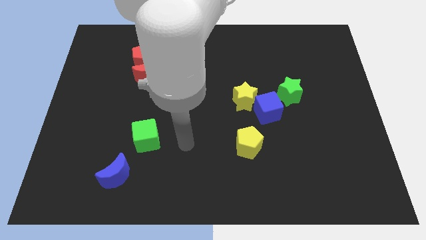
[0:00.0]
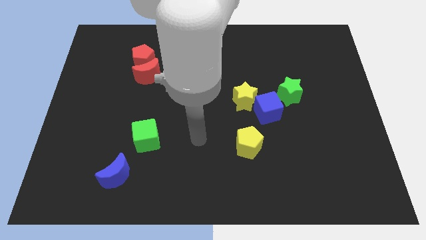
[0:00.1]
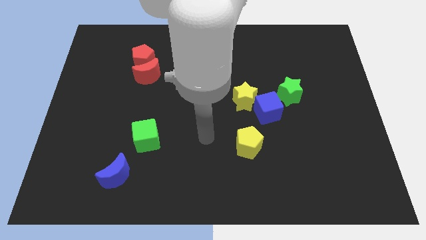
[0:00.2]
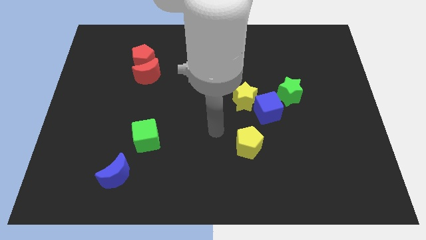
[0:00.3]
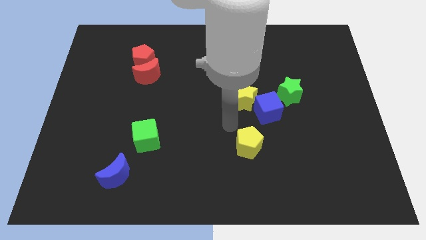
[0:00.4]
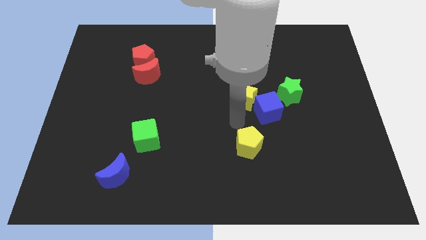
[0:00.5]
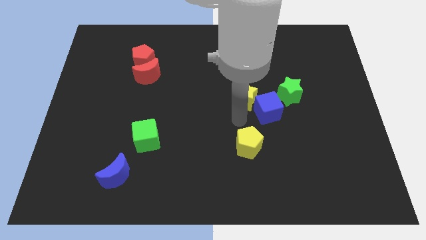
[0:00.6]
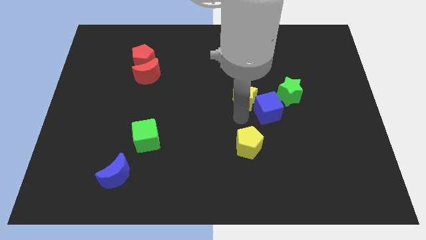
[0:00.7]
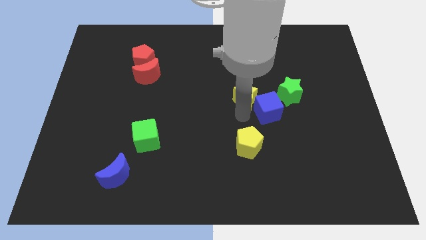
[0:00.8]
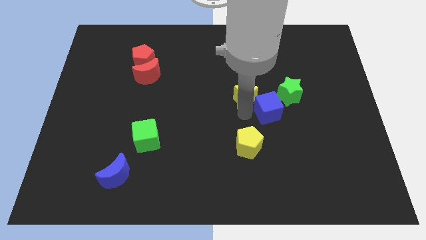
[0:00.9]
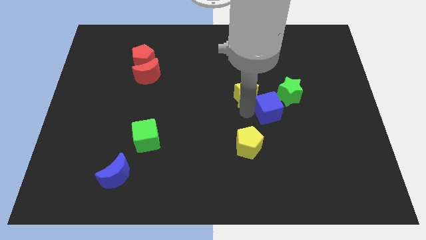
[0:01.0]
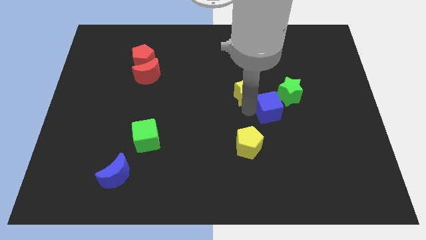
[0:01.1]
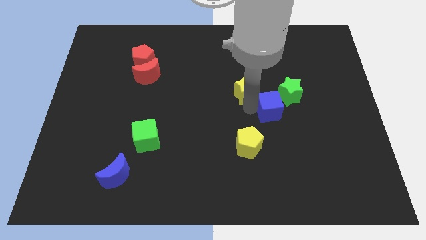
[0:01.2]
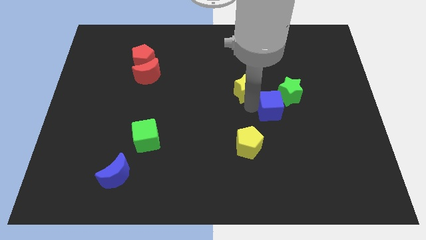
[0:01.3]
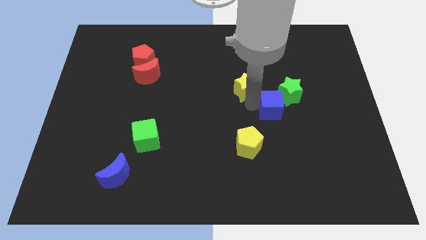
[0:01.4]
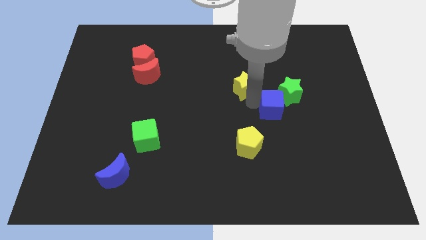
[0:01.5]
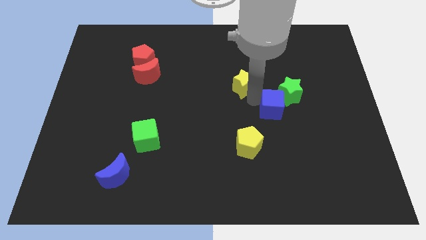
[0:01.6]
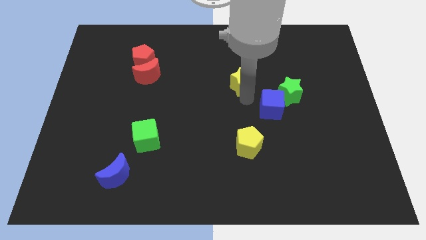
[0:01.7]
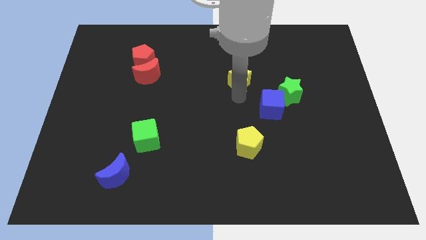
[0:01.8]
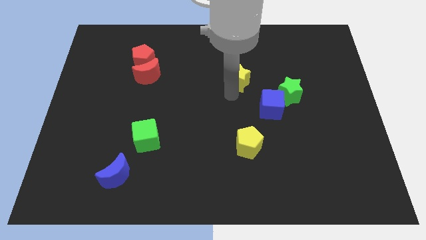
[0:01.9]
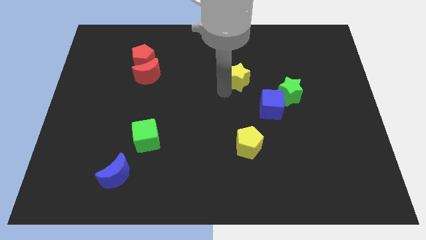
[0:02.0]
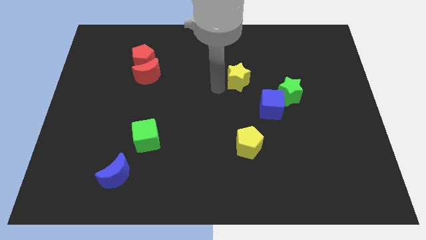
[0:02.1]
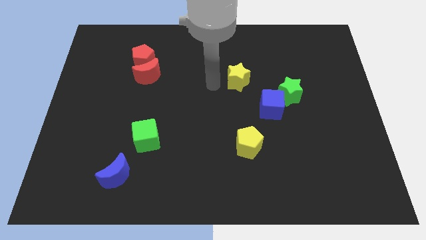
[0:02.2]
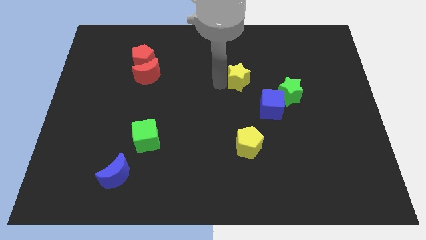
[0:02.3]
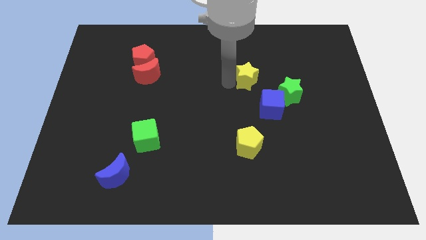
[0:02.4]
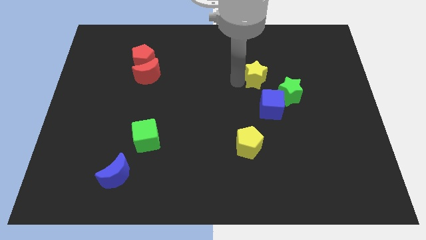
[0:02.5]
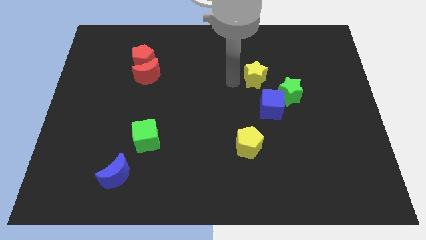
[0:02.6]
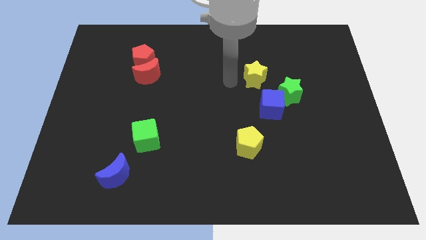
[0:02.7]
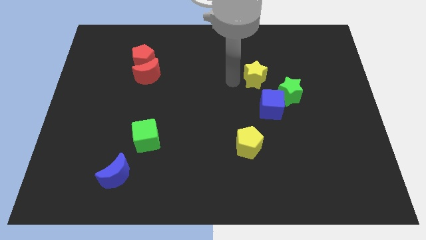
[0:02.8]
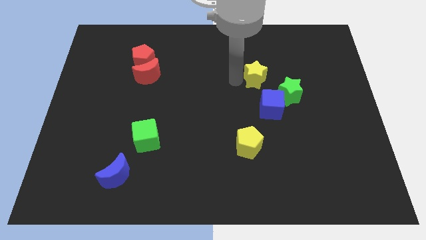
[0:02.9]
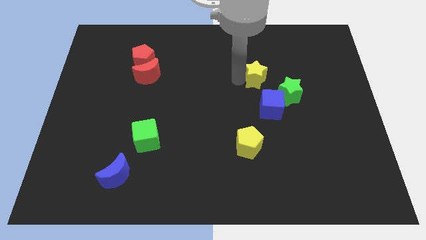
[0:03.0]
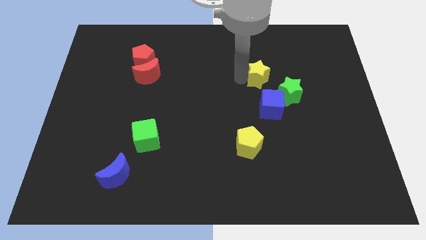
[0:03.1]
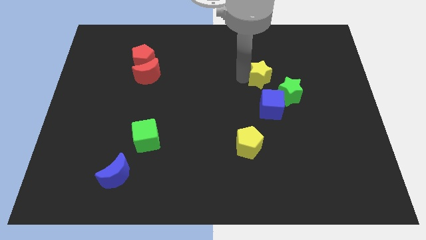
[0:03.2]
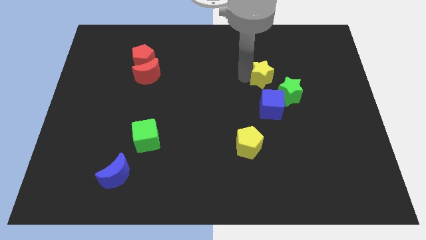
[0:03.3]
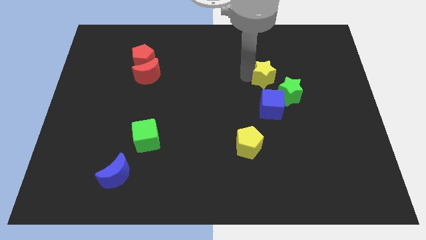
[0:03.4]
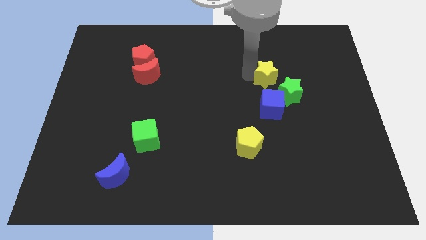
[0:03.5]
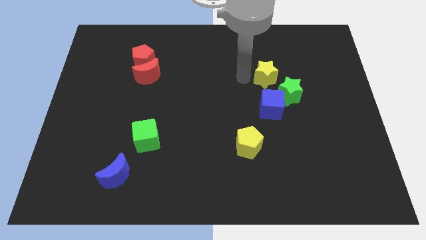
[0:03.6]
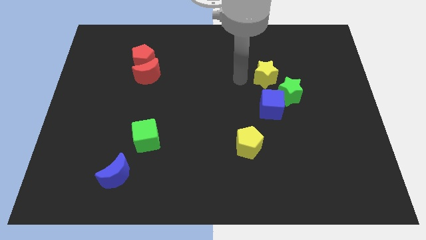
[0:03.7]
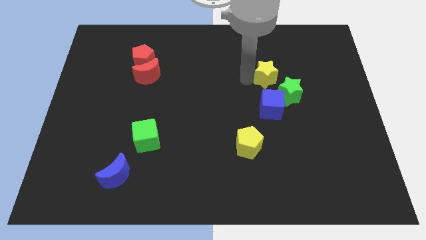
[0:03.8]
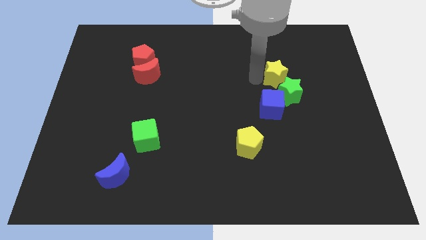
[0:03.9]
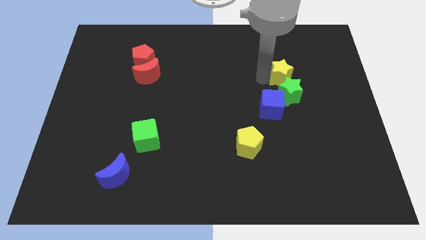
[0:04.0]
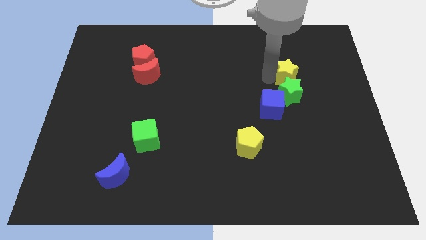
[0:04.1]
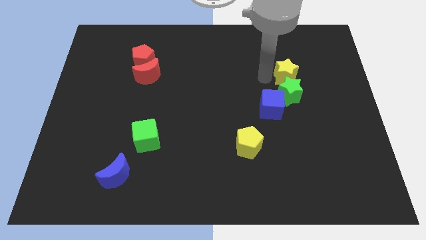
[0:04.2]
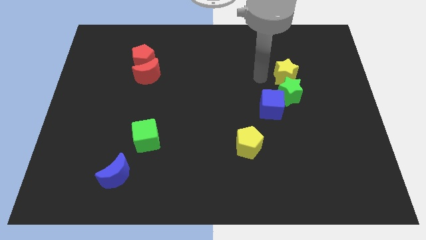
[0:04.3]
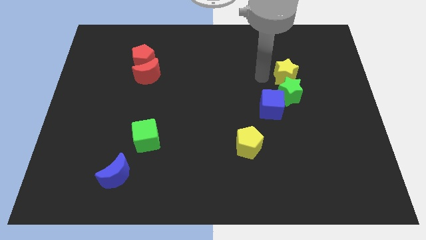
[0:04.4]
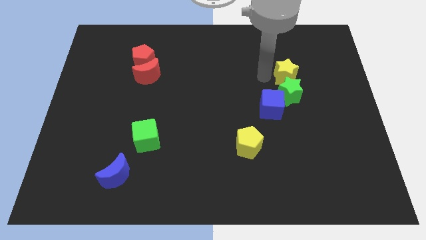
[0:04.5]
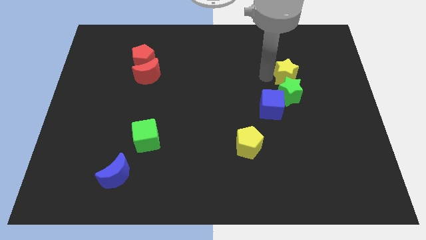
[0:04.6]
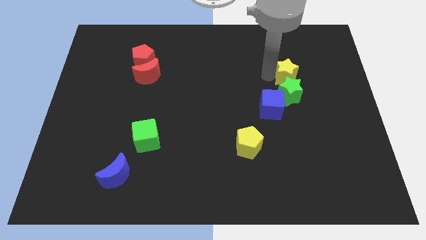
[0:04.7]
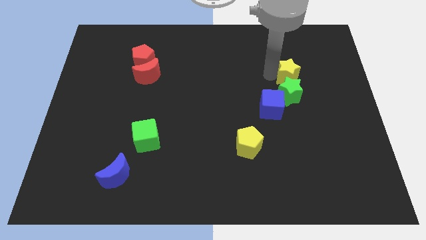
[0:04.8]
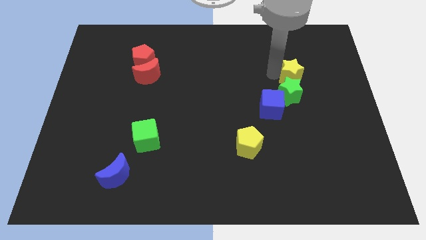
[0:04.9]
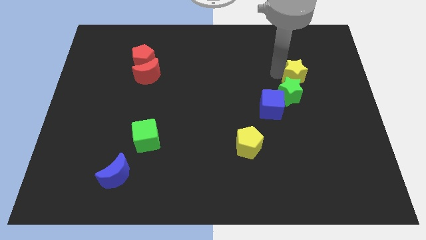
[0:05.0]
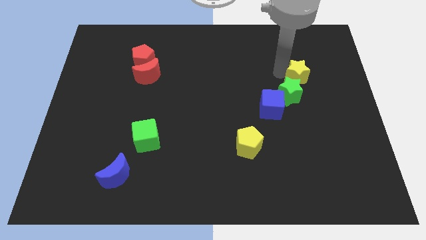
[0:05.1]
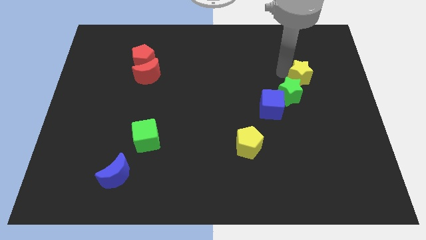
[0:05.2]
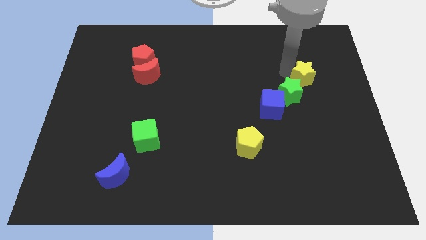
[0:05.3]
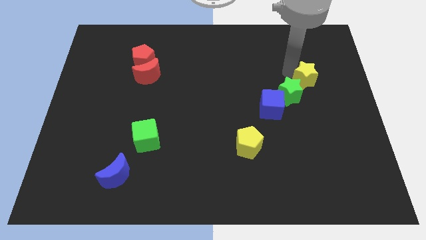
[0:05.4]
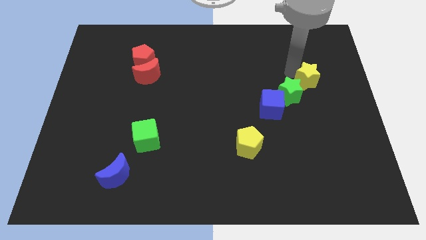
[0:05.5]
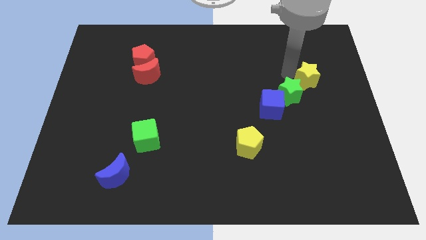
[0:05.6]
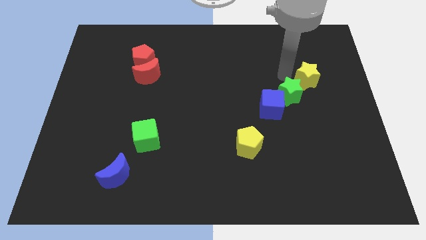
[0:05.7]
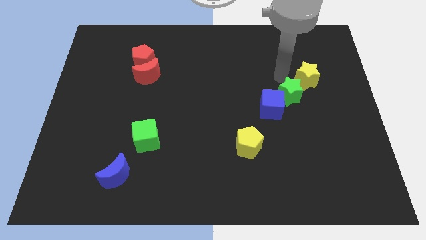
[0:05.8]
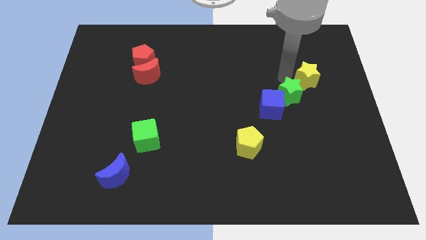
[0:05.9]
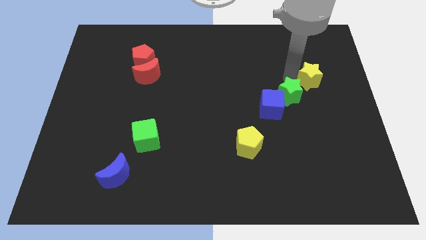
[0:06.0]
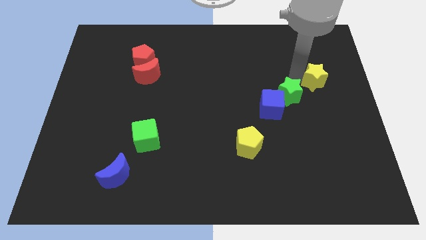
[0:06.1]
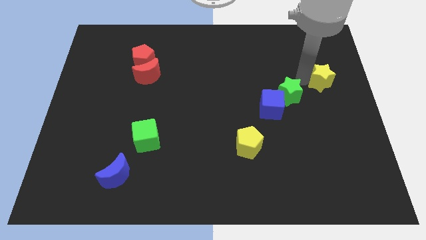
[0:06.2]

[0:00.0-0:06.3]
put the yellow star to the right side of the board

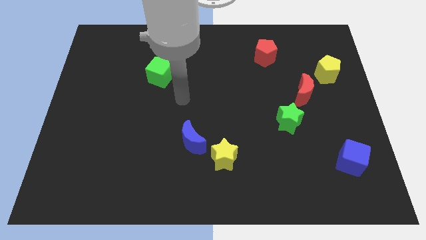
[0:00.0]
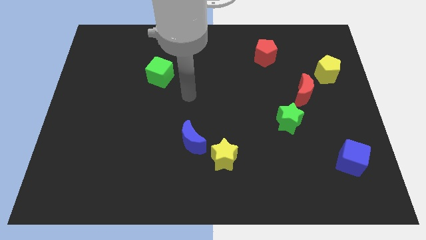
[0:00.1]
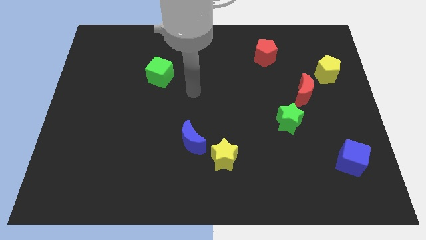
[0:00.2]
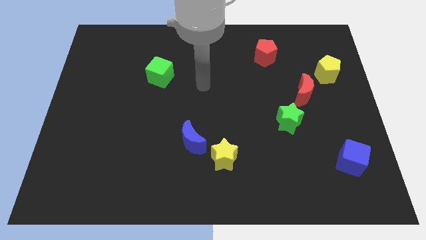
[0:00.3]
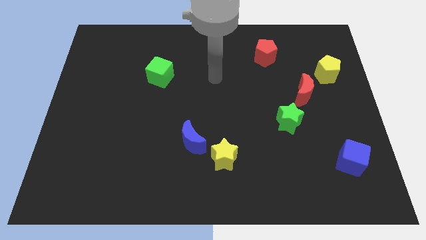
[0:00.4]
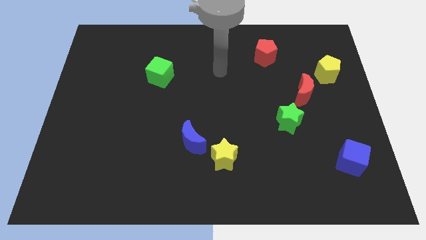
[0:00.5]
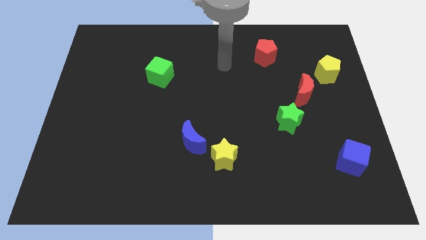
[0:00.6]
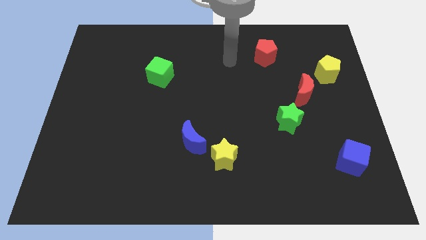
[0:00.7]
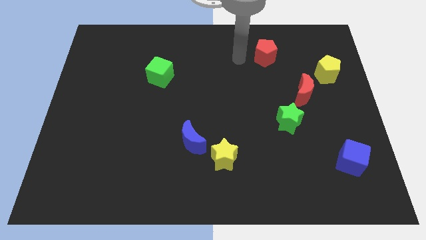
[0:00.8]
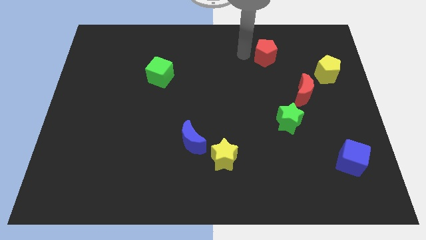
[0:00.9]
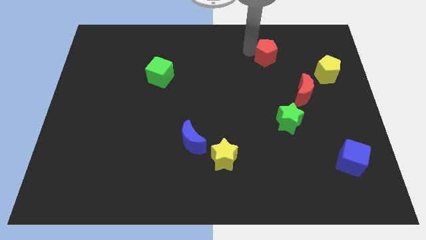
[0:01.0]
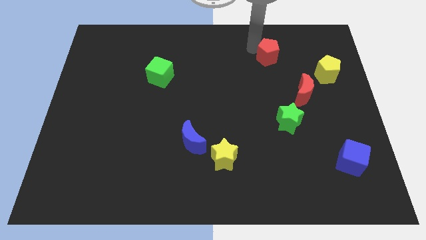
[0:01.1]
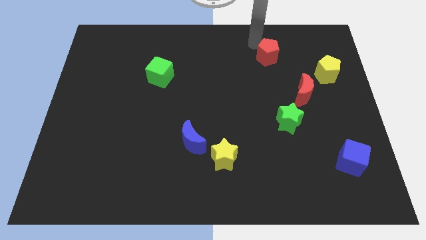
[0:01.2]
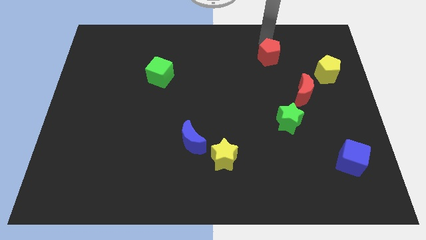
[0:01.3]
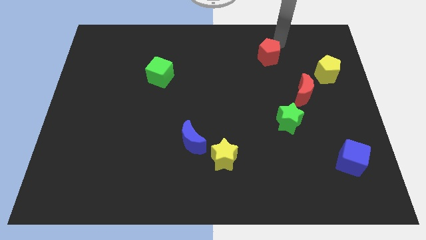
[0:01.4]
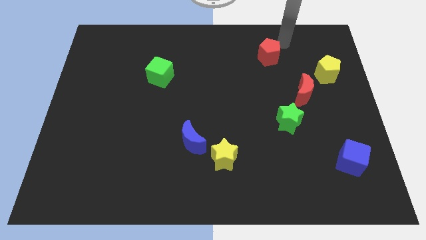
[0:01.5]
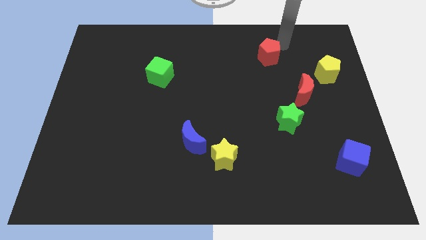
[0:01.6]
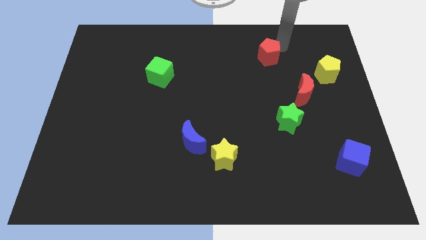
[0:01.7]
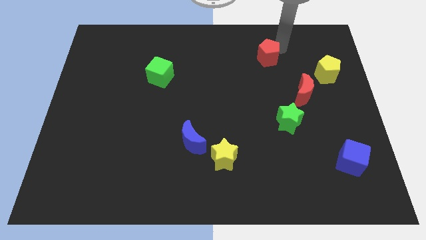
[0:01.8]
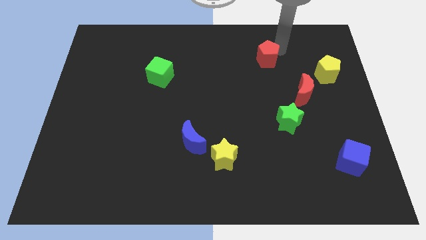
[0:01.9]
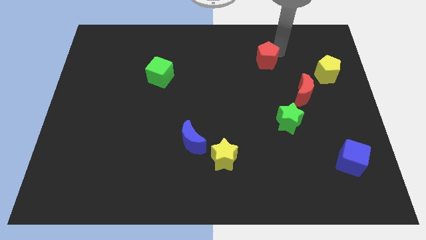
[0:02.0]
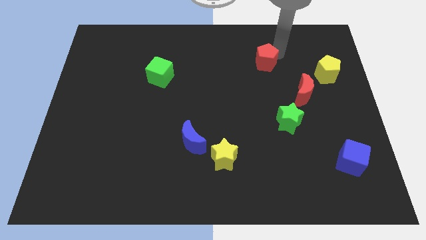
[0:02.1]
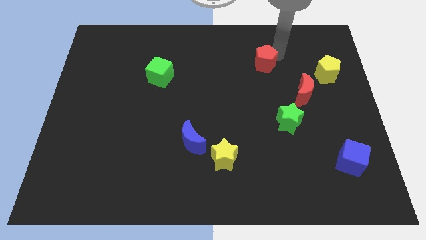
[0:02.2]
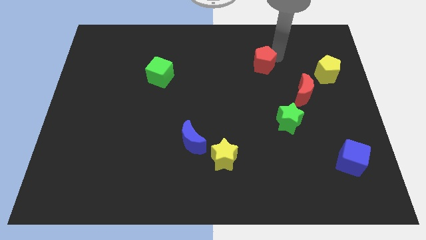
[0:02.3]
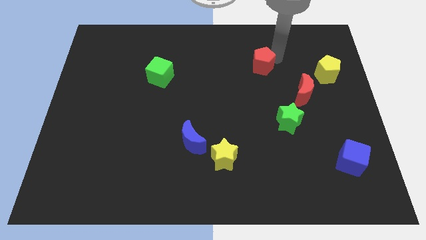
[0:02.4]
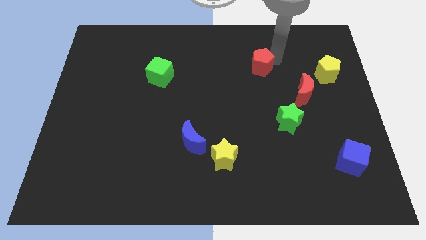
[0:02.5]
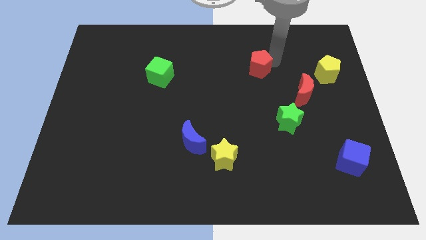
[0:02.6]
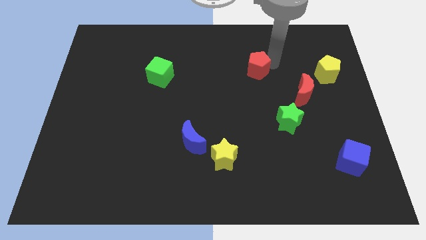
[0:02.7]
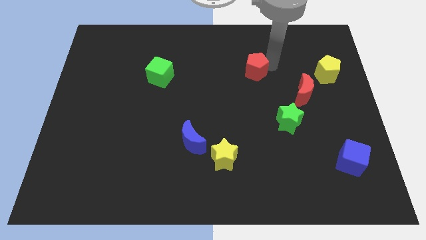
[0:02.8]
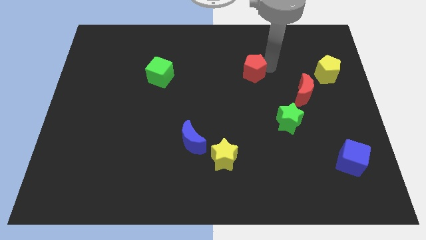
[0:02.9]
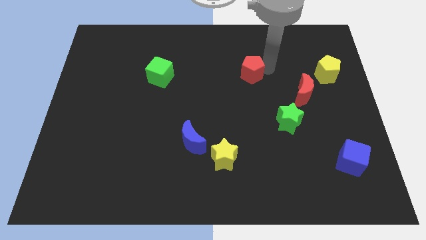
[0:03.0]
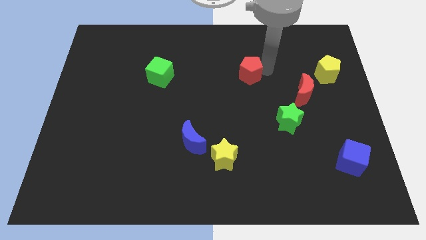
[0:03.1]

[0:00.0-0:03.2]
push the red pentagon to the middle of the board
